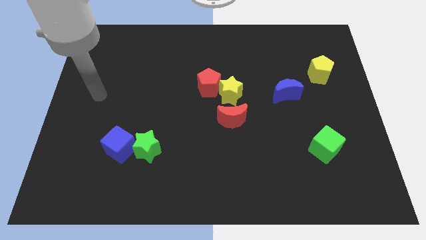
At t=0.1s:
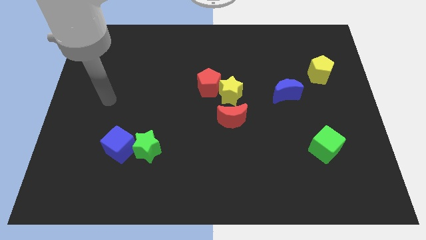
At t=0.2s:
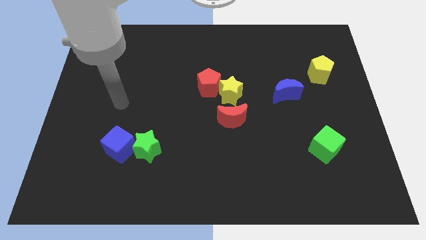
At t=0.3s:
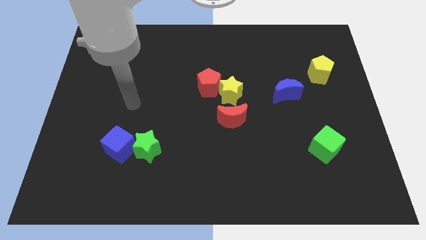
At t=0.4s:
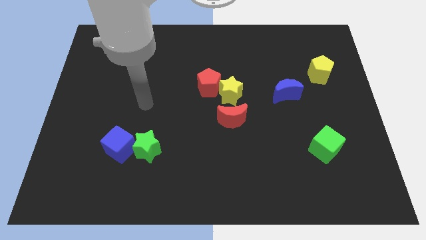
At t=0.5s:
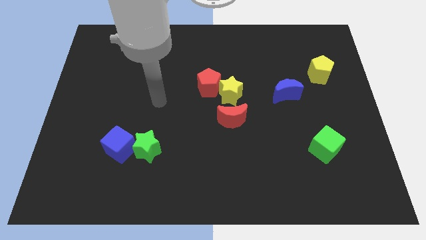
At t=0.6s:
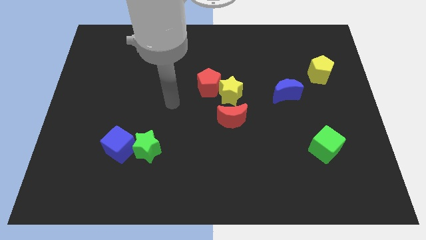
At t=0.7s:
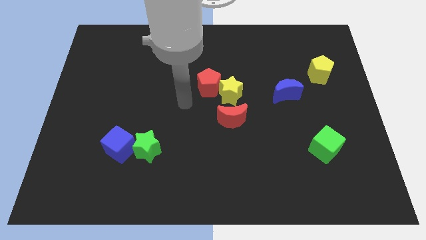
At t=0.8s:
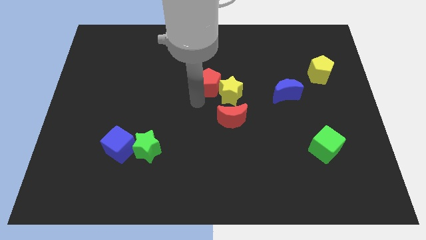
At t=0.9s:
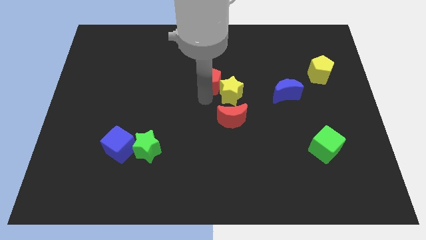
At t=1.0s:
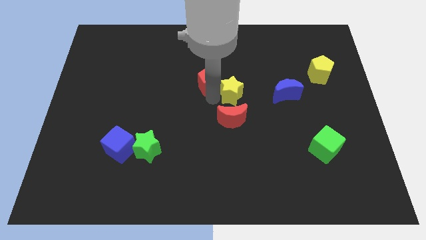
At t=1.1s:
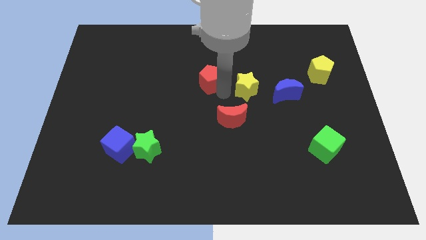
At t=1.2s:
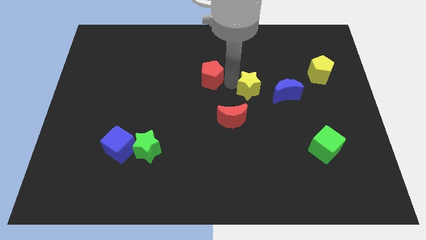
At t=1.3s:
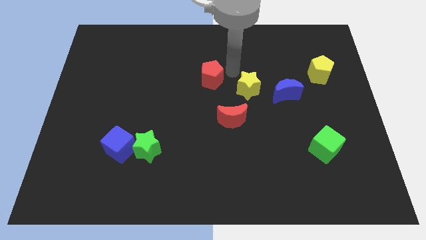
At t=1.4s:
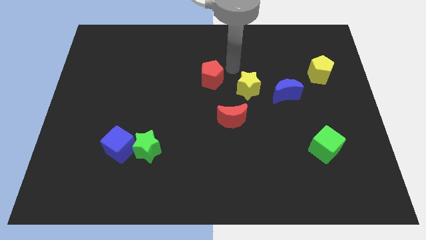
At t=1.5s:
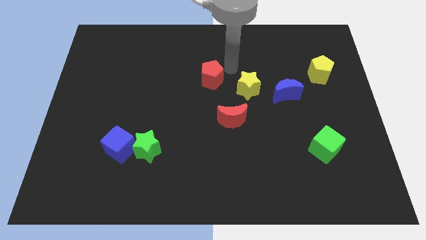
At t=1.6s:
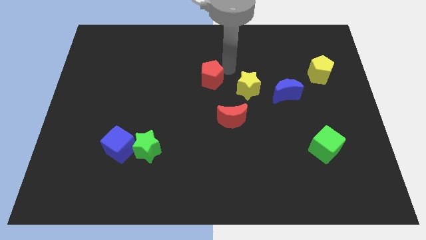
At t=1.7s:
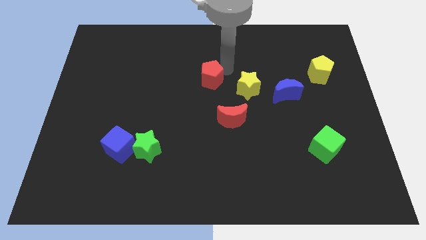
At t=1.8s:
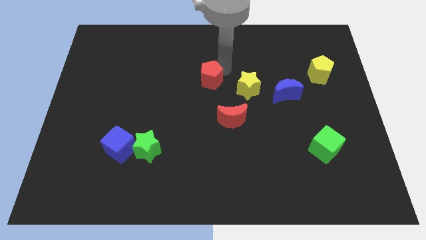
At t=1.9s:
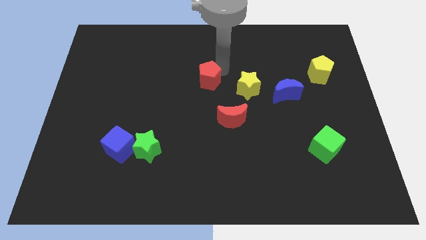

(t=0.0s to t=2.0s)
move the red pentagon away from the yellow star

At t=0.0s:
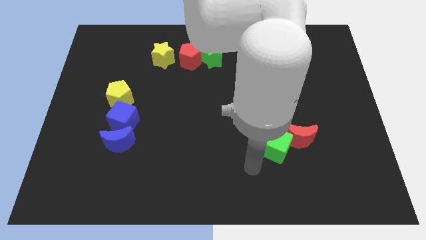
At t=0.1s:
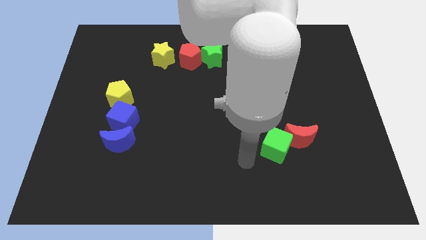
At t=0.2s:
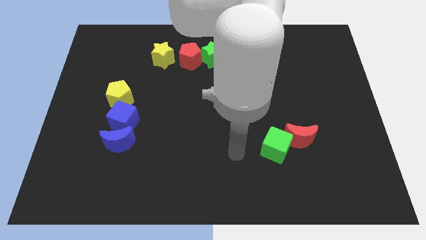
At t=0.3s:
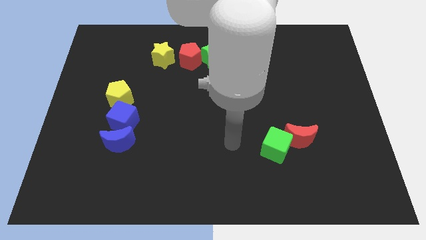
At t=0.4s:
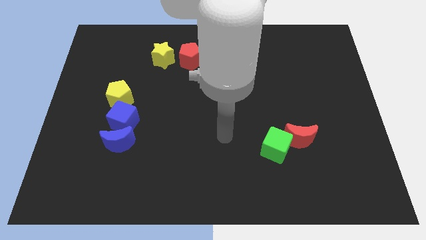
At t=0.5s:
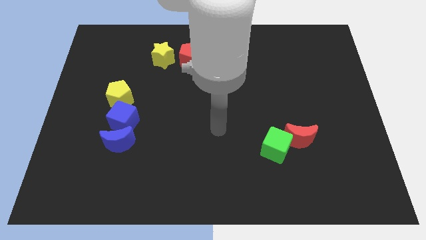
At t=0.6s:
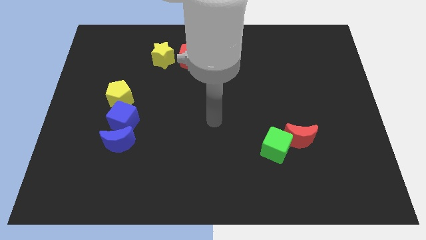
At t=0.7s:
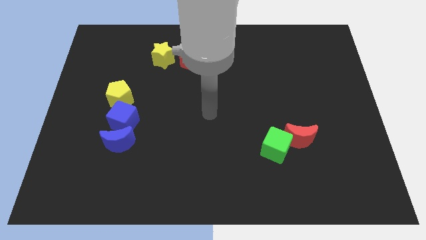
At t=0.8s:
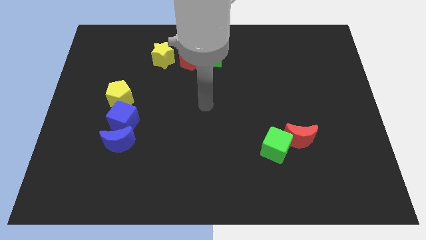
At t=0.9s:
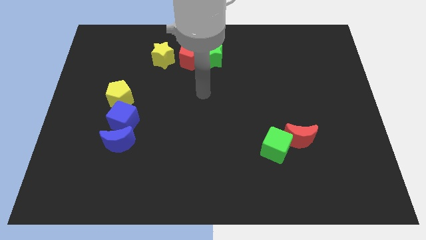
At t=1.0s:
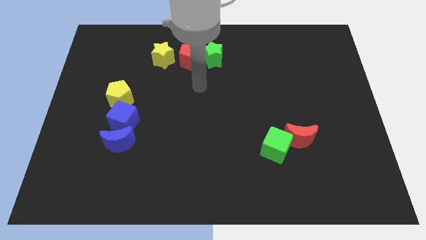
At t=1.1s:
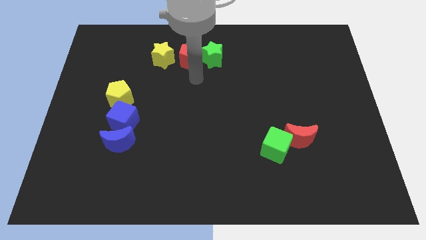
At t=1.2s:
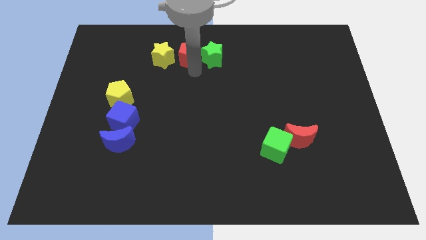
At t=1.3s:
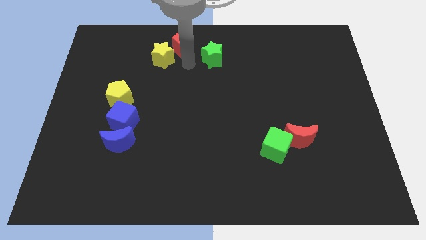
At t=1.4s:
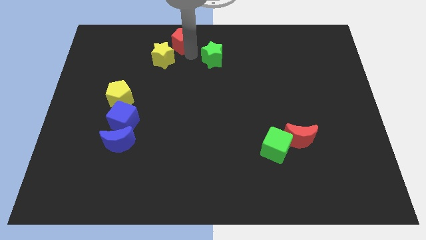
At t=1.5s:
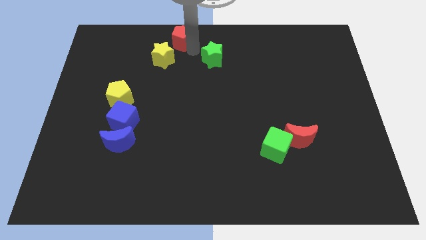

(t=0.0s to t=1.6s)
pull the green star apart from the red pentagon

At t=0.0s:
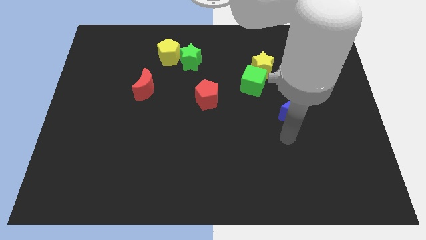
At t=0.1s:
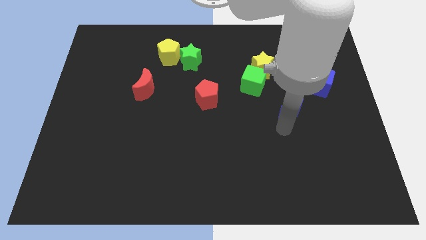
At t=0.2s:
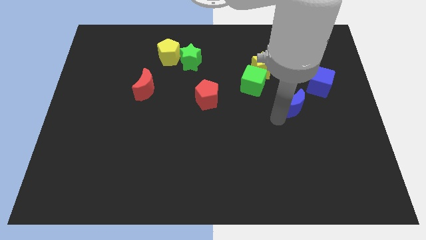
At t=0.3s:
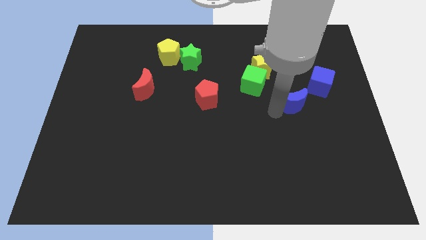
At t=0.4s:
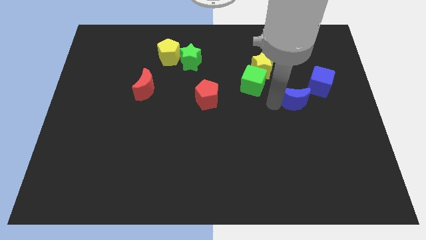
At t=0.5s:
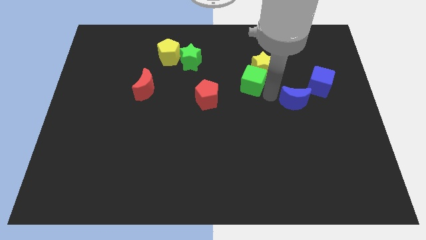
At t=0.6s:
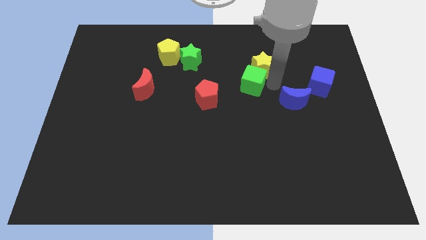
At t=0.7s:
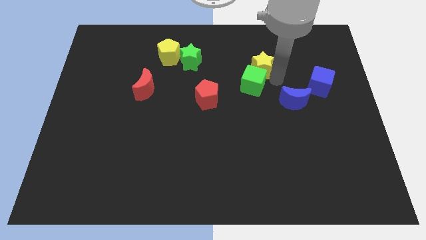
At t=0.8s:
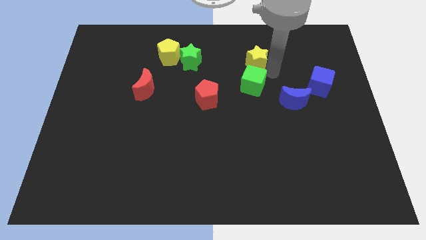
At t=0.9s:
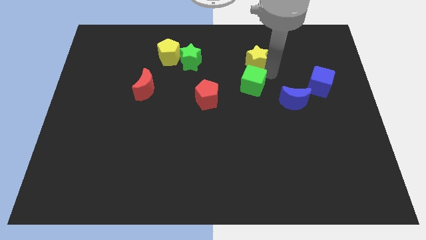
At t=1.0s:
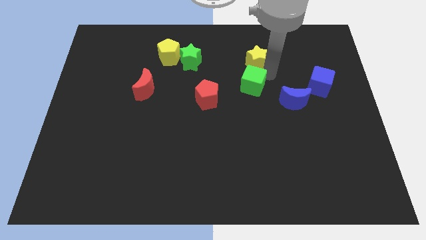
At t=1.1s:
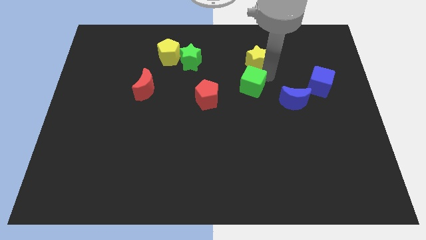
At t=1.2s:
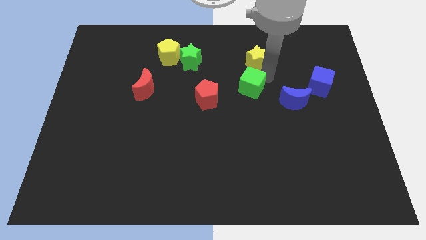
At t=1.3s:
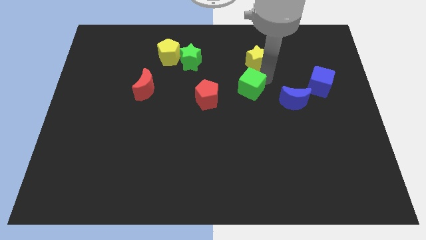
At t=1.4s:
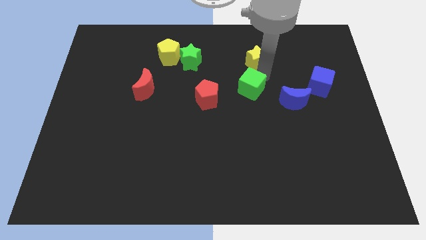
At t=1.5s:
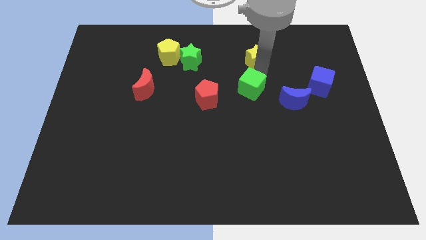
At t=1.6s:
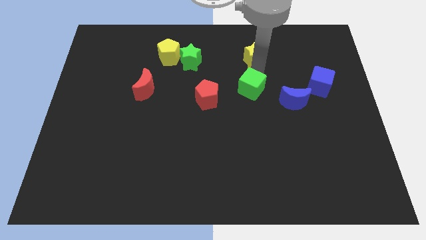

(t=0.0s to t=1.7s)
pull the green cube apart from the yellow star

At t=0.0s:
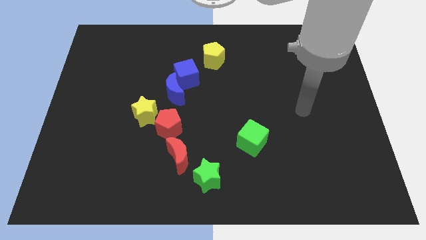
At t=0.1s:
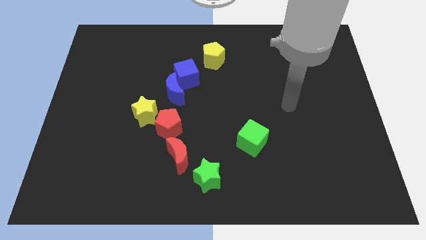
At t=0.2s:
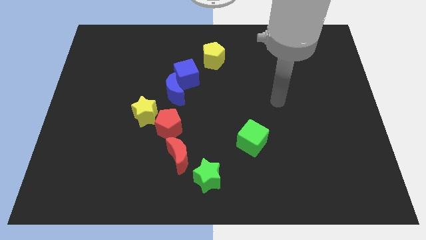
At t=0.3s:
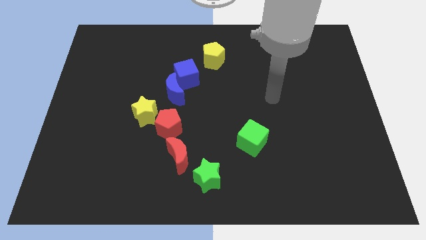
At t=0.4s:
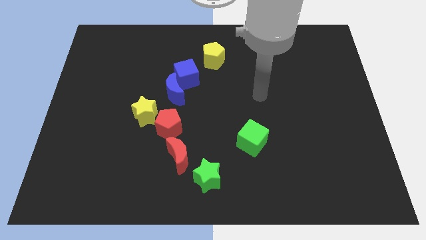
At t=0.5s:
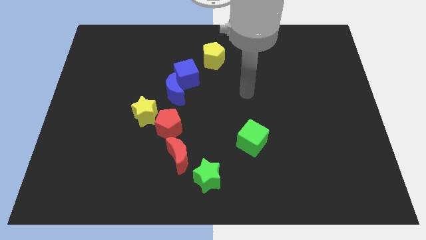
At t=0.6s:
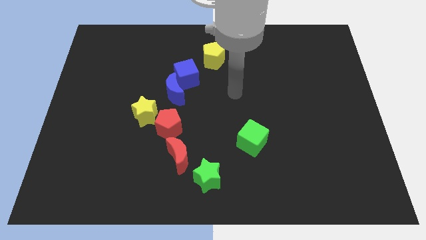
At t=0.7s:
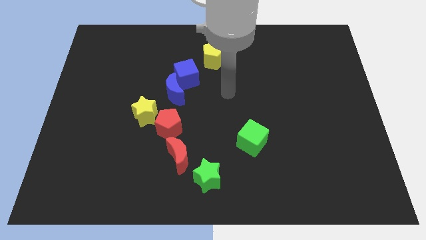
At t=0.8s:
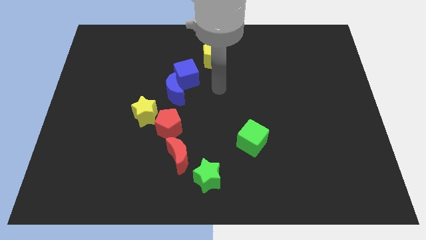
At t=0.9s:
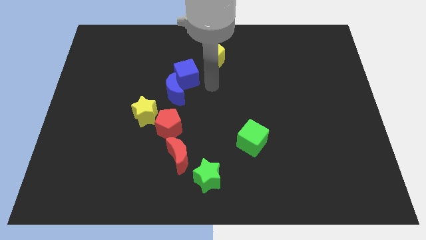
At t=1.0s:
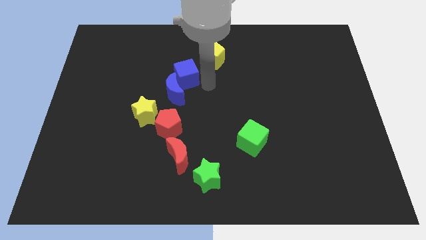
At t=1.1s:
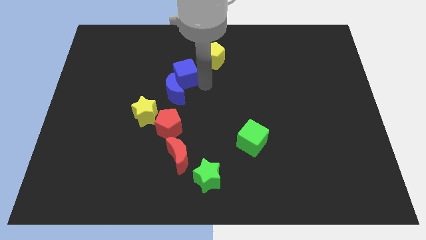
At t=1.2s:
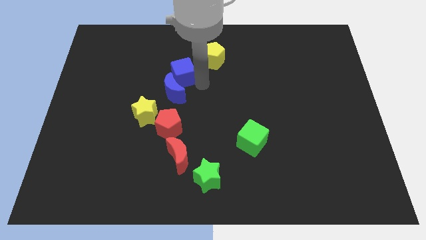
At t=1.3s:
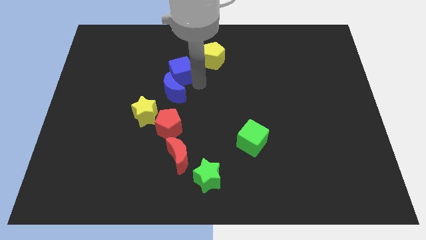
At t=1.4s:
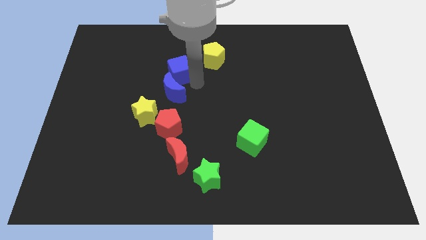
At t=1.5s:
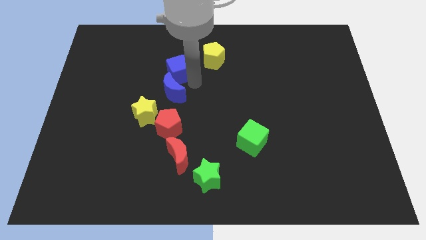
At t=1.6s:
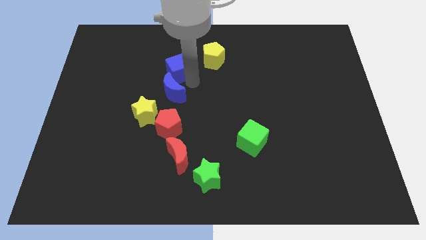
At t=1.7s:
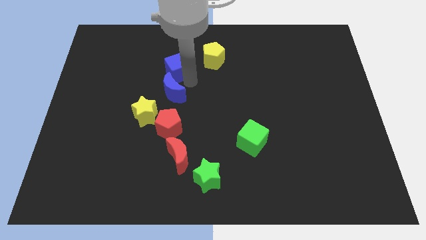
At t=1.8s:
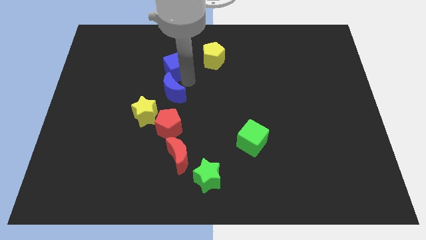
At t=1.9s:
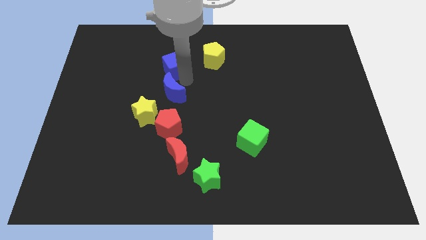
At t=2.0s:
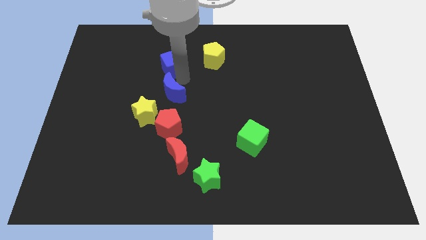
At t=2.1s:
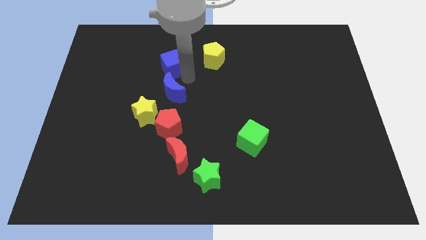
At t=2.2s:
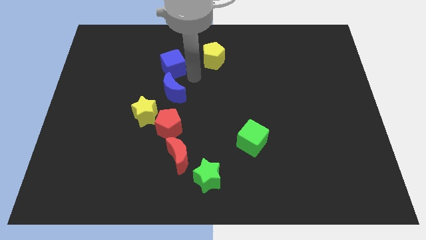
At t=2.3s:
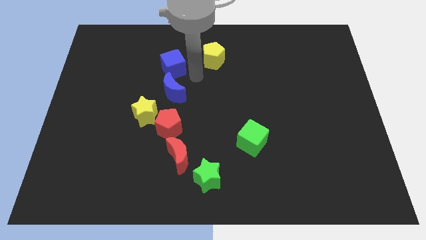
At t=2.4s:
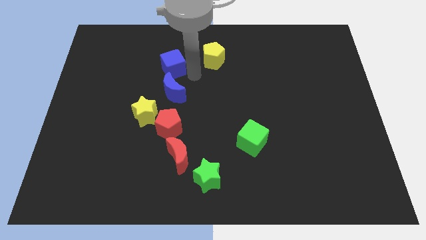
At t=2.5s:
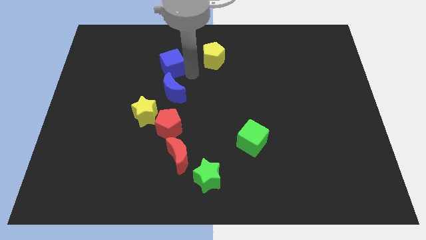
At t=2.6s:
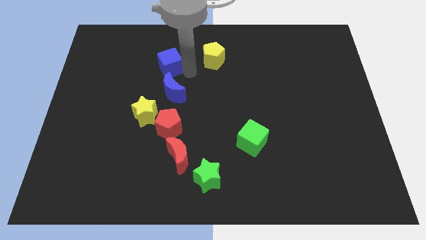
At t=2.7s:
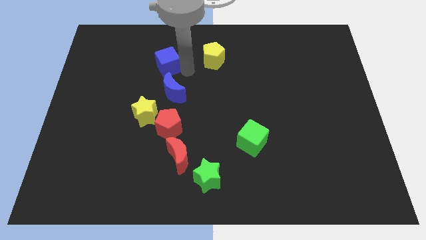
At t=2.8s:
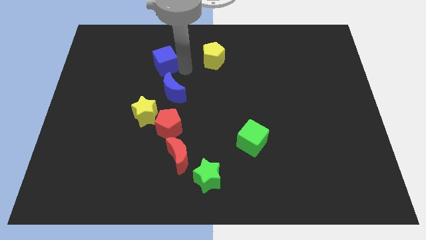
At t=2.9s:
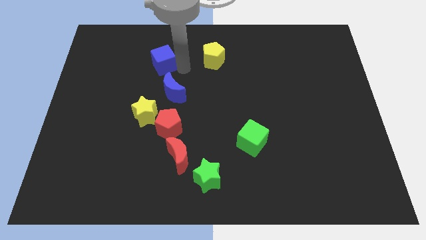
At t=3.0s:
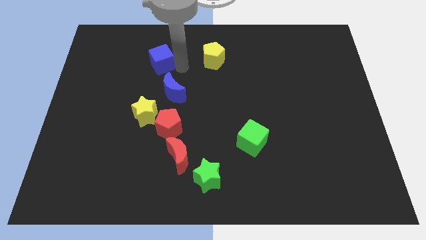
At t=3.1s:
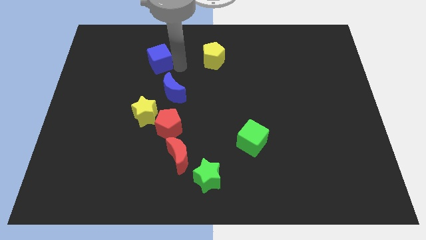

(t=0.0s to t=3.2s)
move the blue cube away from the blue moon and yellow pentagon

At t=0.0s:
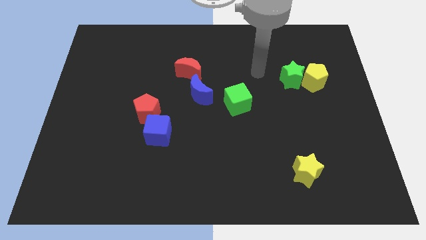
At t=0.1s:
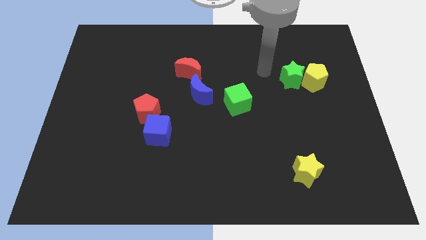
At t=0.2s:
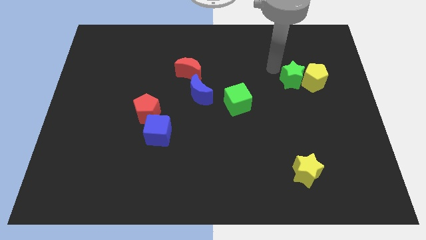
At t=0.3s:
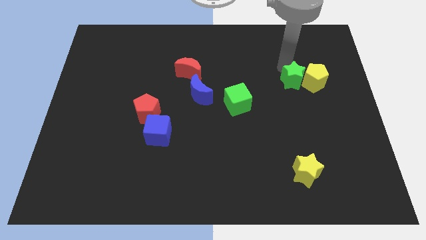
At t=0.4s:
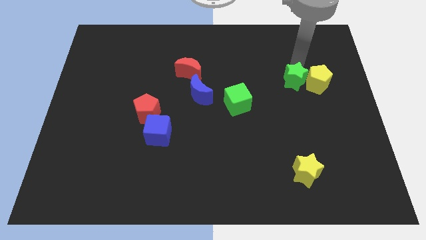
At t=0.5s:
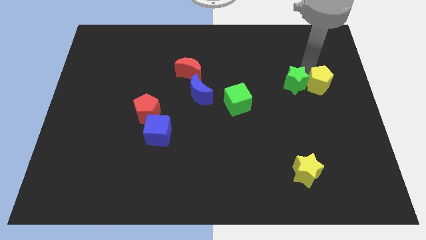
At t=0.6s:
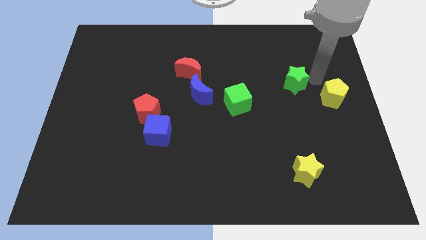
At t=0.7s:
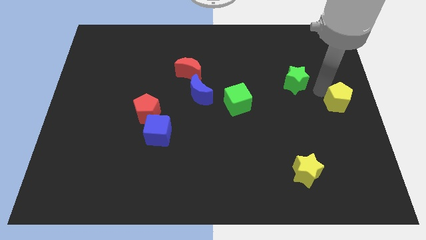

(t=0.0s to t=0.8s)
pull the green star apart from the yellow pentagon
